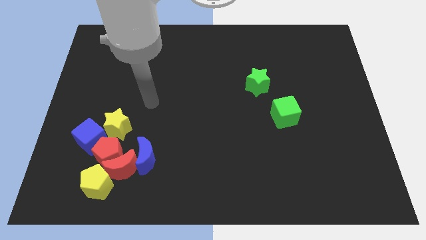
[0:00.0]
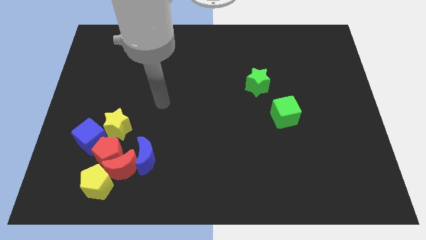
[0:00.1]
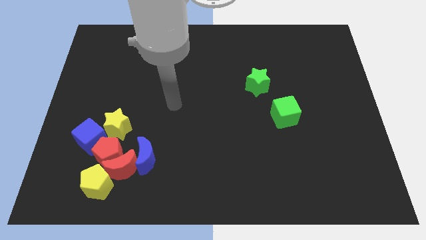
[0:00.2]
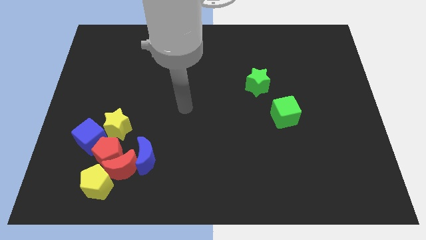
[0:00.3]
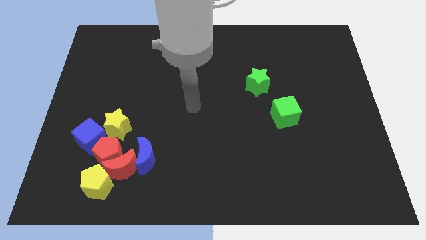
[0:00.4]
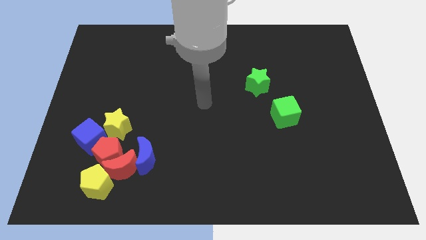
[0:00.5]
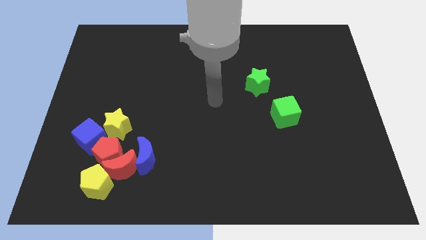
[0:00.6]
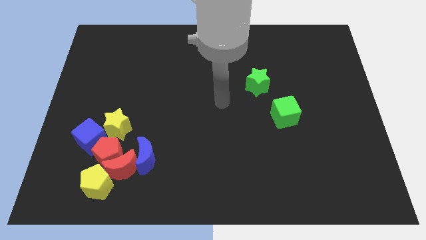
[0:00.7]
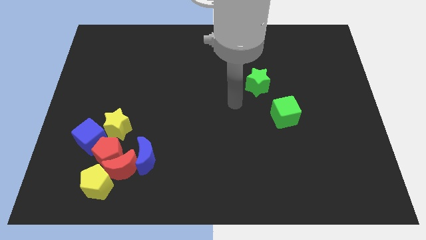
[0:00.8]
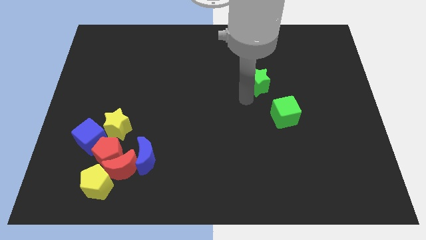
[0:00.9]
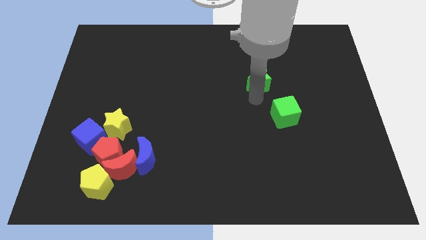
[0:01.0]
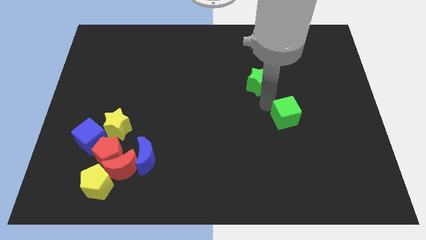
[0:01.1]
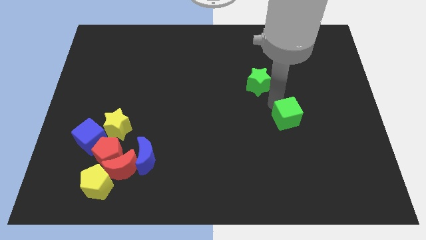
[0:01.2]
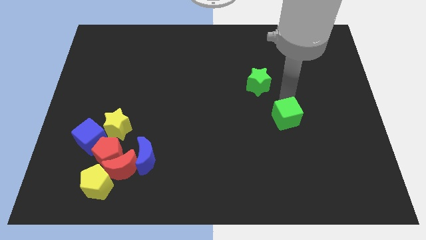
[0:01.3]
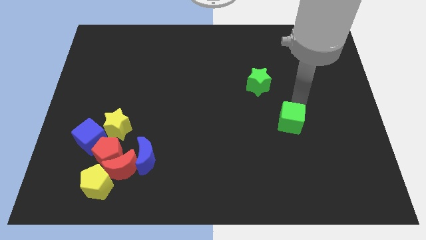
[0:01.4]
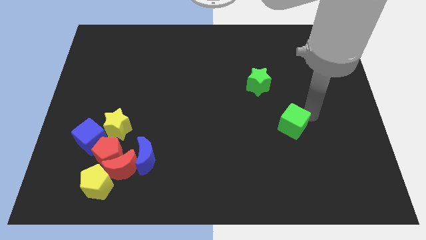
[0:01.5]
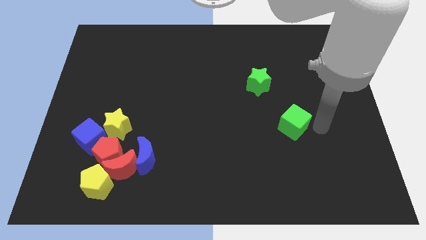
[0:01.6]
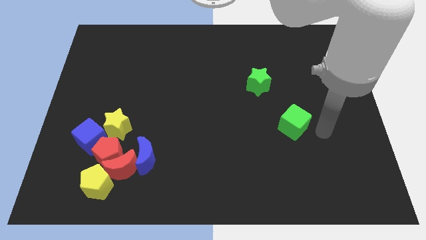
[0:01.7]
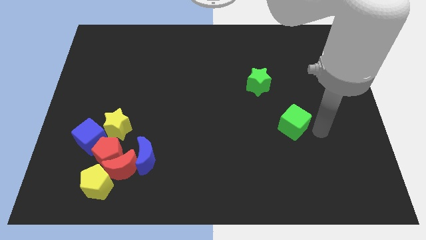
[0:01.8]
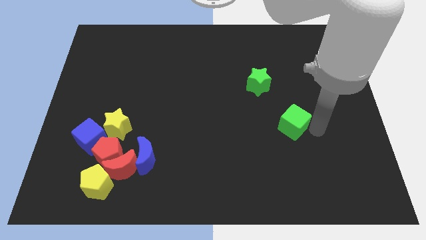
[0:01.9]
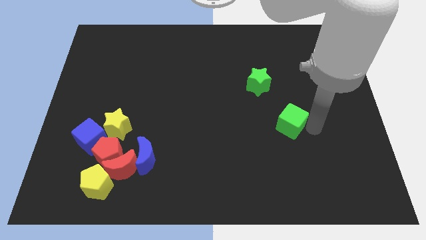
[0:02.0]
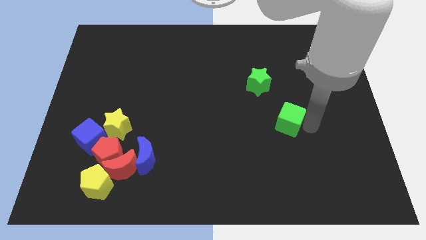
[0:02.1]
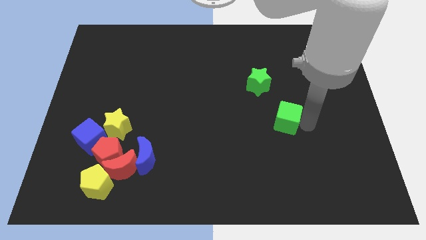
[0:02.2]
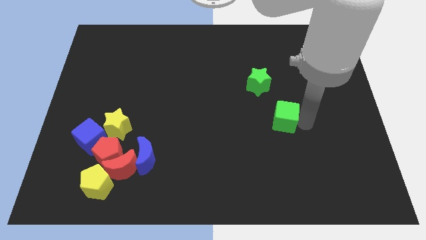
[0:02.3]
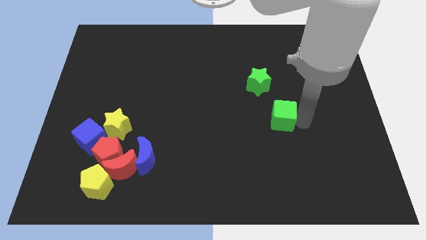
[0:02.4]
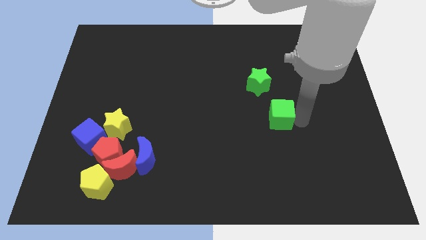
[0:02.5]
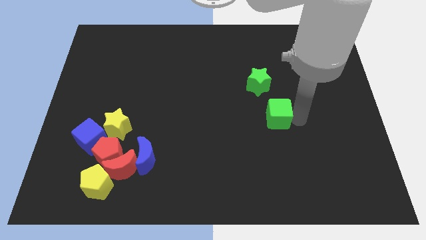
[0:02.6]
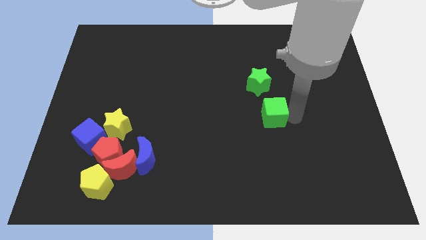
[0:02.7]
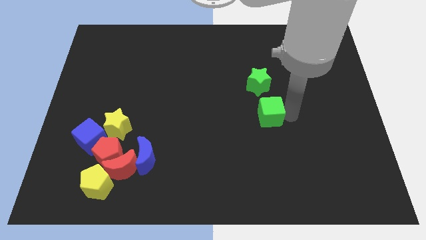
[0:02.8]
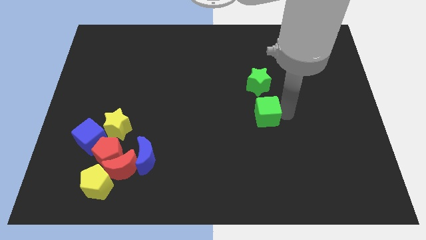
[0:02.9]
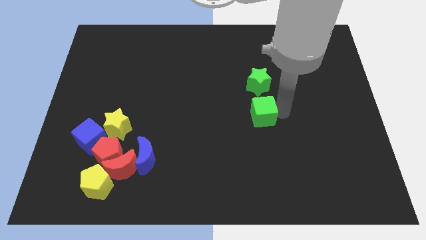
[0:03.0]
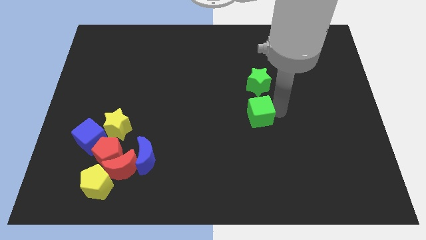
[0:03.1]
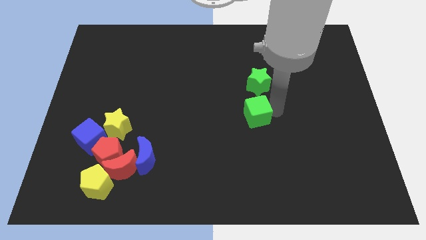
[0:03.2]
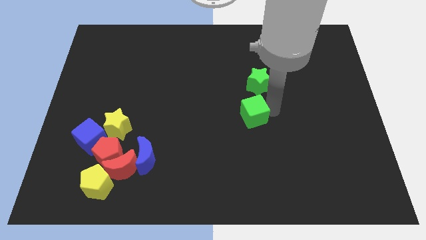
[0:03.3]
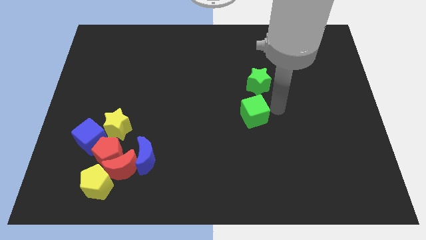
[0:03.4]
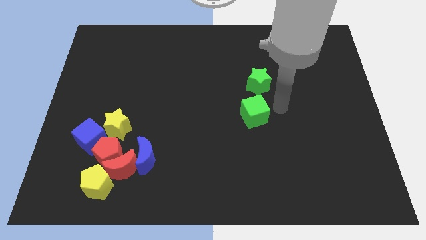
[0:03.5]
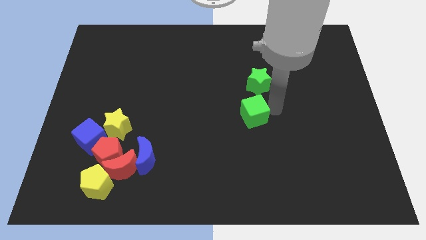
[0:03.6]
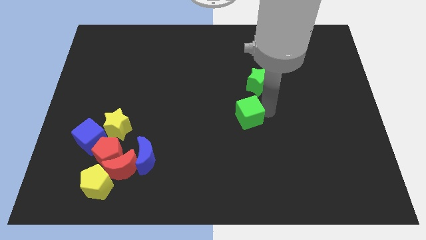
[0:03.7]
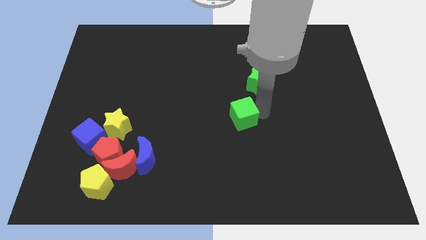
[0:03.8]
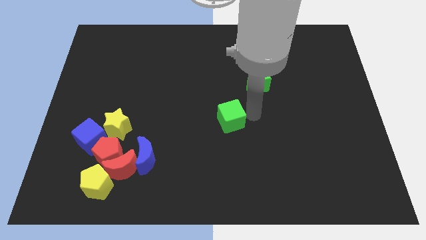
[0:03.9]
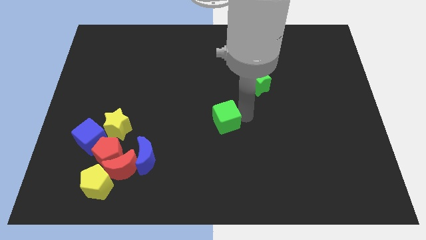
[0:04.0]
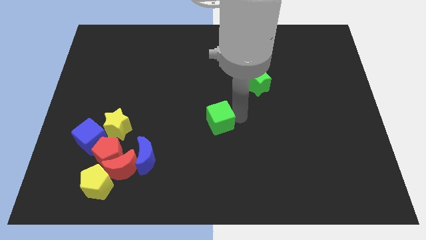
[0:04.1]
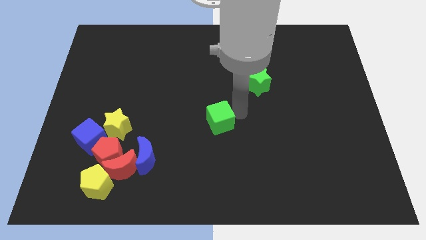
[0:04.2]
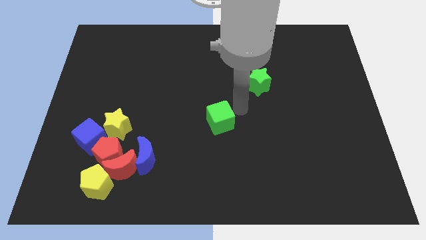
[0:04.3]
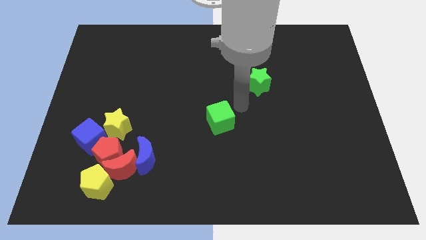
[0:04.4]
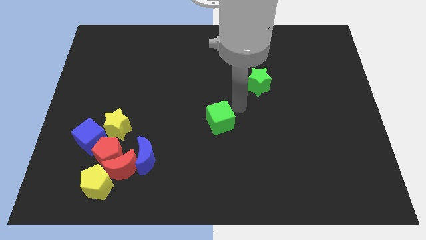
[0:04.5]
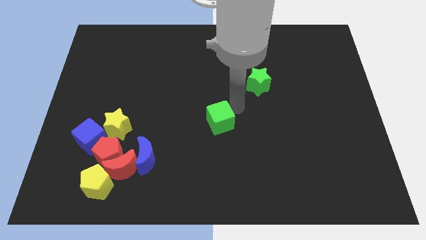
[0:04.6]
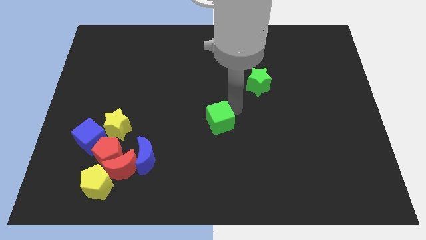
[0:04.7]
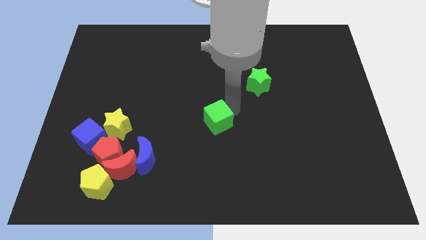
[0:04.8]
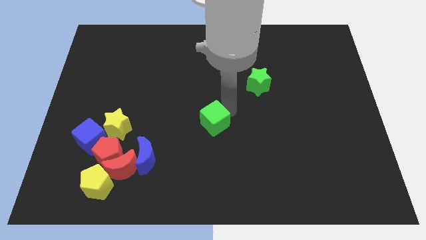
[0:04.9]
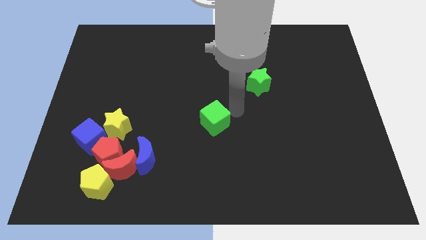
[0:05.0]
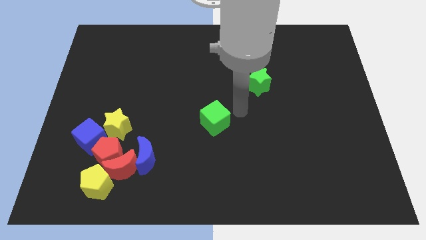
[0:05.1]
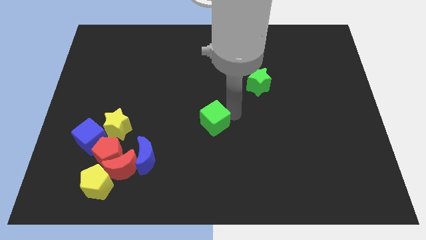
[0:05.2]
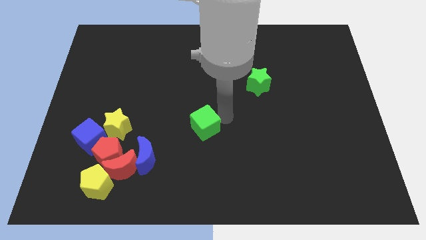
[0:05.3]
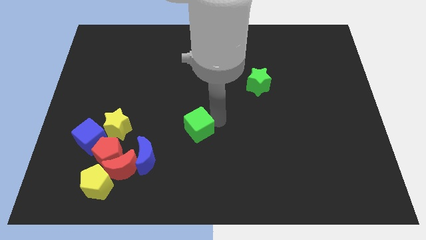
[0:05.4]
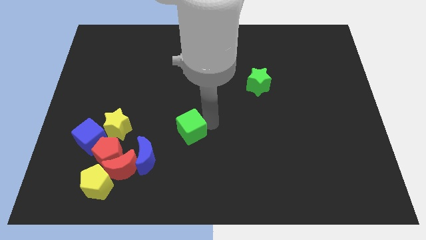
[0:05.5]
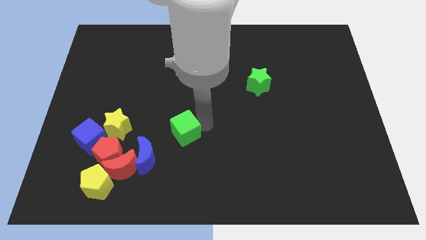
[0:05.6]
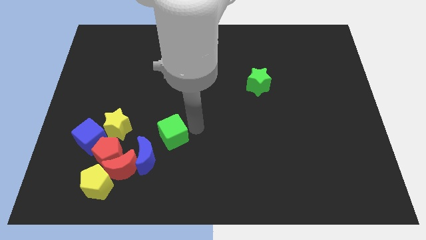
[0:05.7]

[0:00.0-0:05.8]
slide the green cube to the top right of the red moon

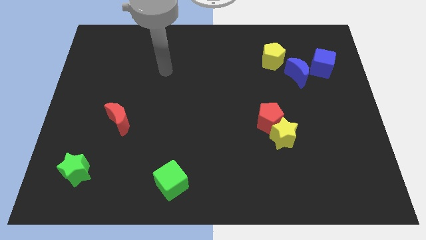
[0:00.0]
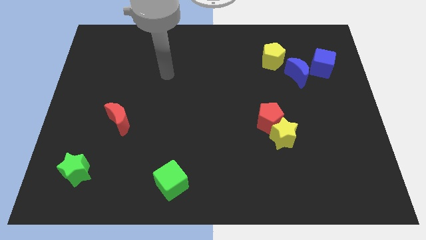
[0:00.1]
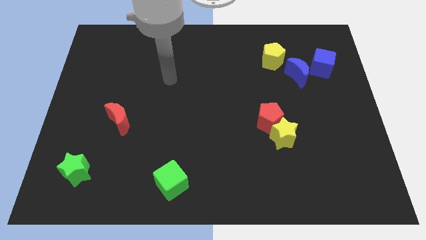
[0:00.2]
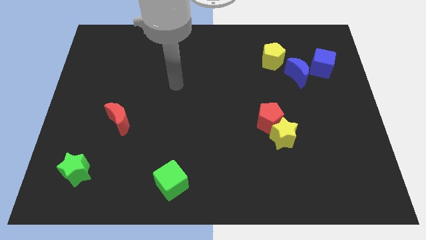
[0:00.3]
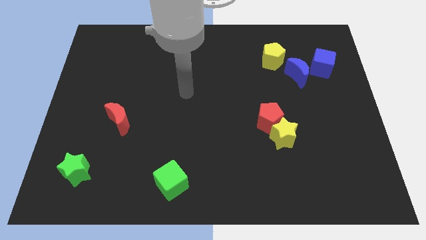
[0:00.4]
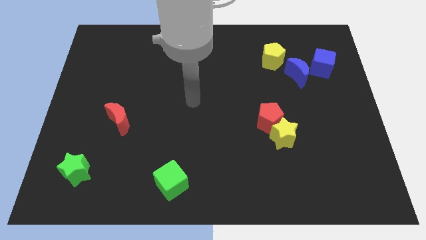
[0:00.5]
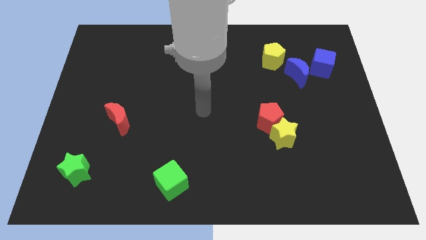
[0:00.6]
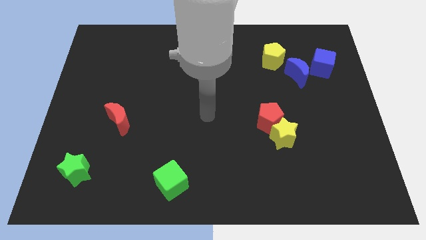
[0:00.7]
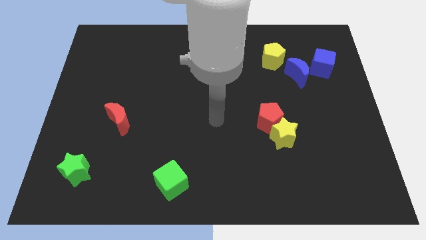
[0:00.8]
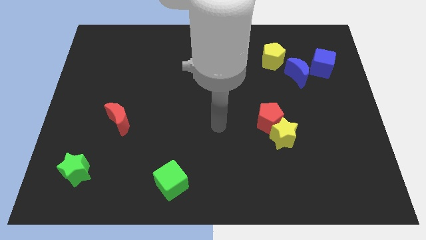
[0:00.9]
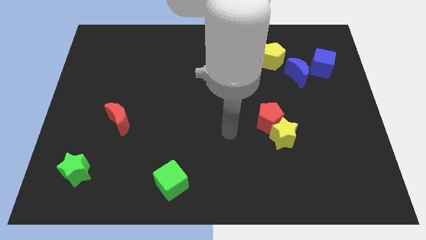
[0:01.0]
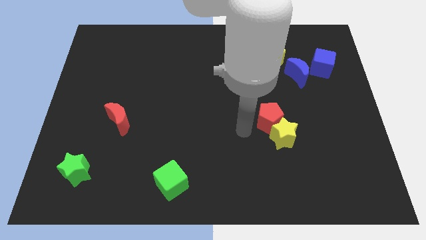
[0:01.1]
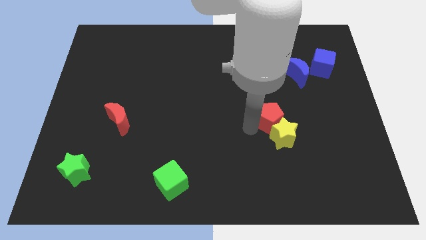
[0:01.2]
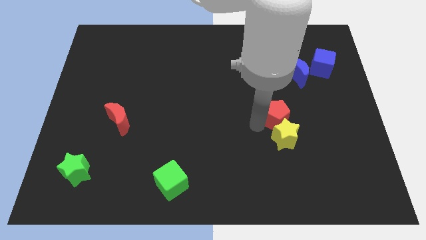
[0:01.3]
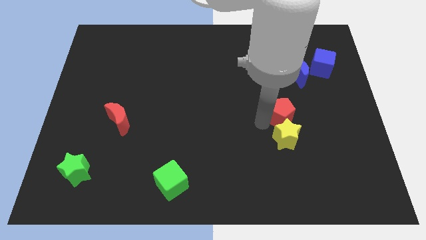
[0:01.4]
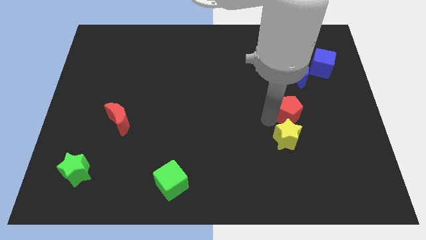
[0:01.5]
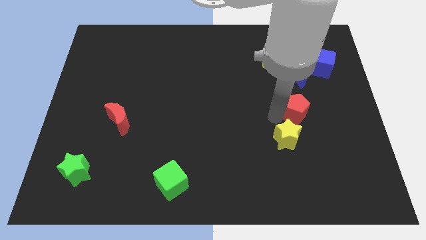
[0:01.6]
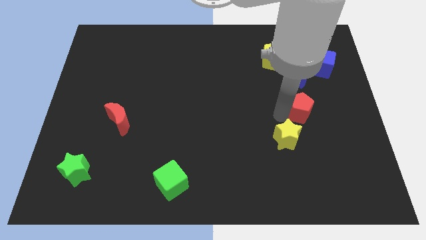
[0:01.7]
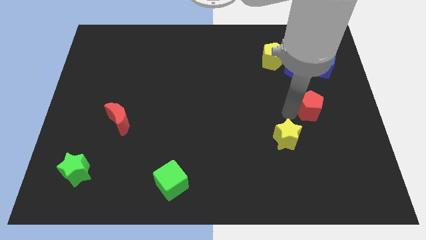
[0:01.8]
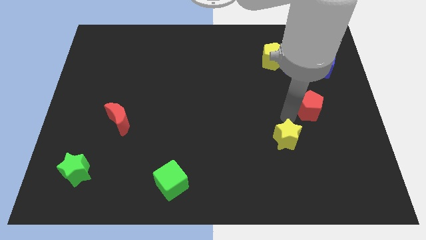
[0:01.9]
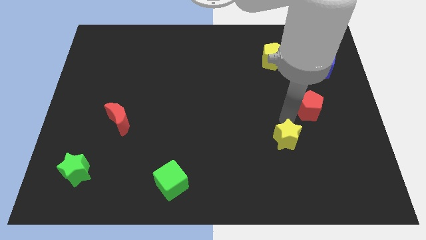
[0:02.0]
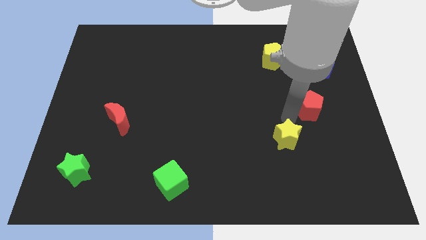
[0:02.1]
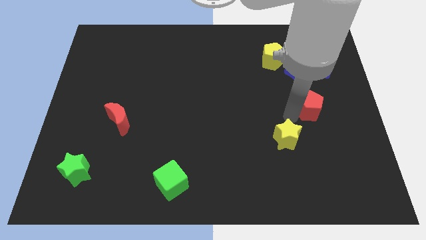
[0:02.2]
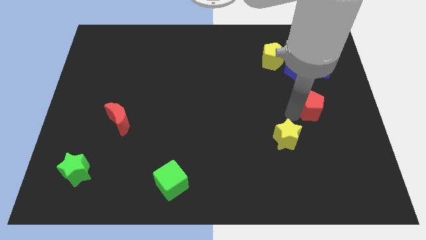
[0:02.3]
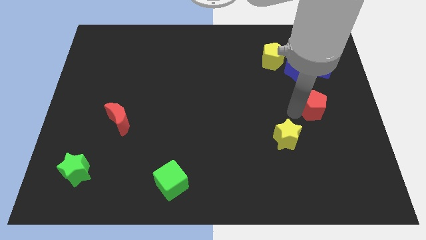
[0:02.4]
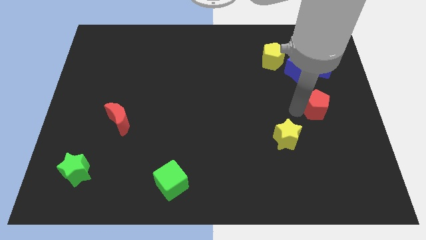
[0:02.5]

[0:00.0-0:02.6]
slide the red pentagon below the blue cube
